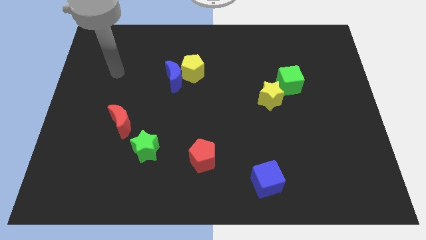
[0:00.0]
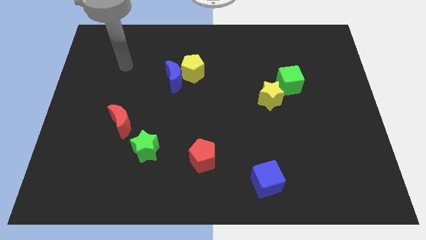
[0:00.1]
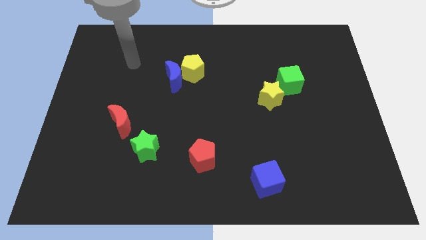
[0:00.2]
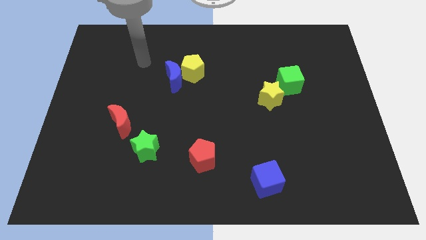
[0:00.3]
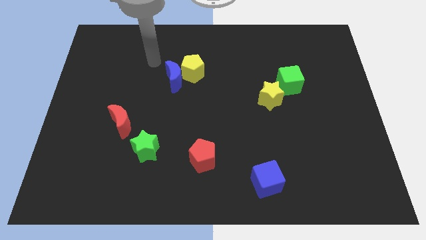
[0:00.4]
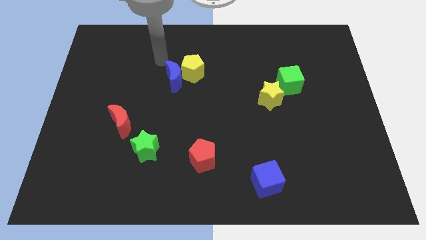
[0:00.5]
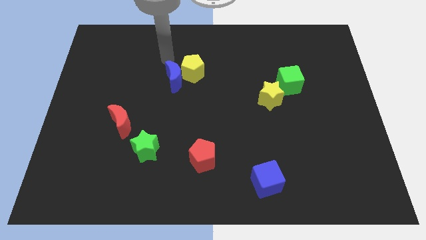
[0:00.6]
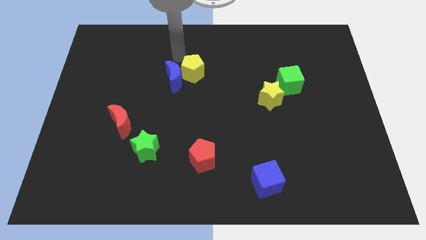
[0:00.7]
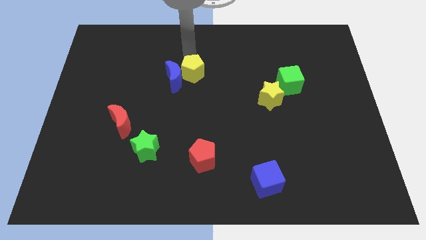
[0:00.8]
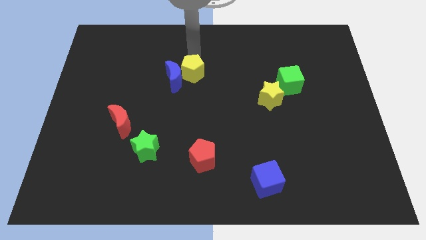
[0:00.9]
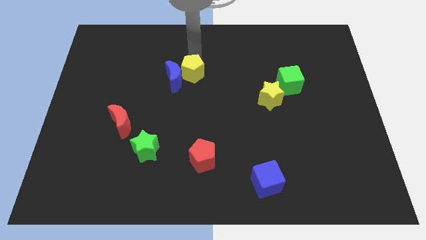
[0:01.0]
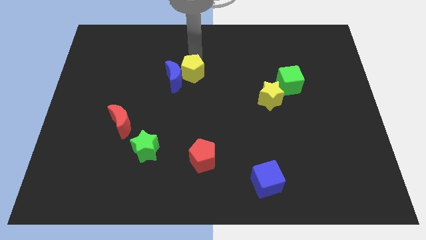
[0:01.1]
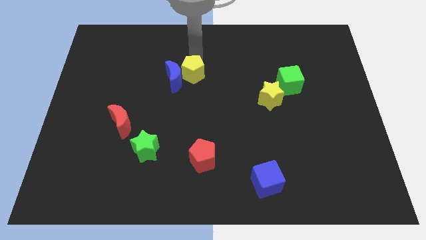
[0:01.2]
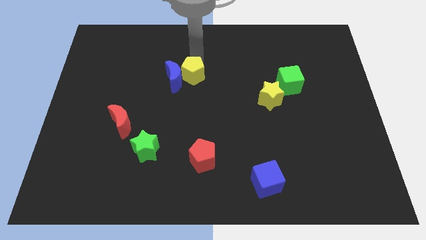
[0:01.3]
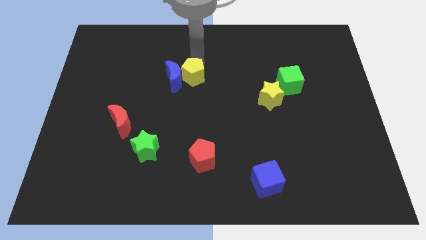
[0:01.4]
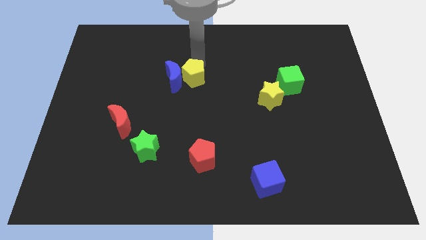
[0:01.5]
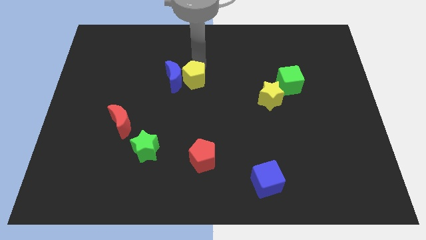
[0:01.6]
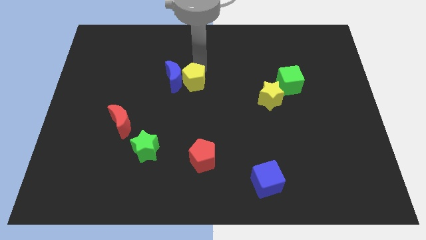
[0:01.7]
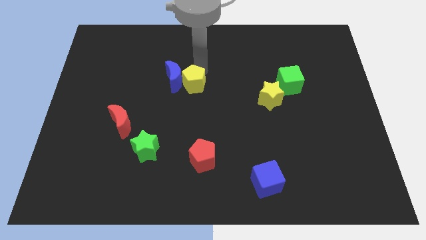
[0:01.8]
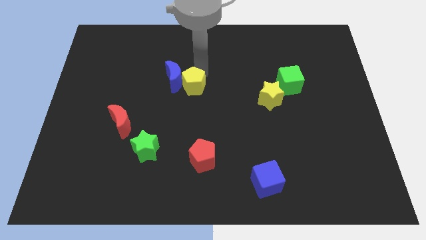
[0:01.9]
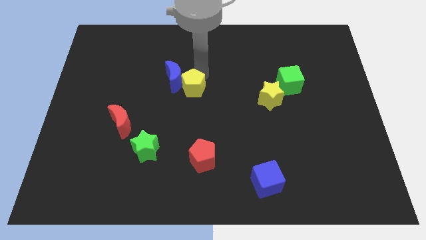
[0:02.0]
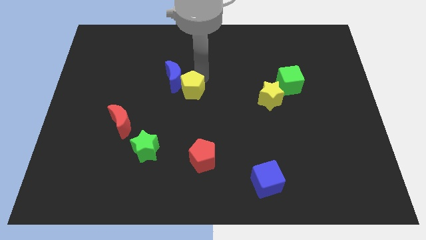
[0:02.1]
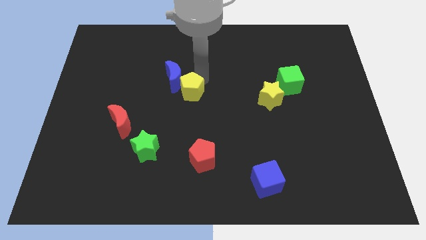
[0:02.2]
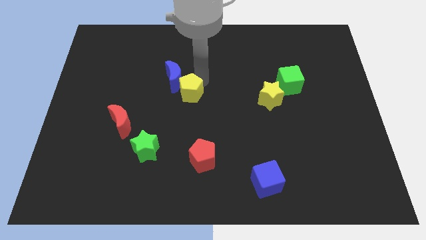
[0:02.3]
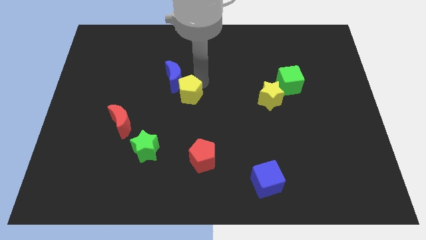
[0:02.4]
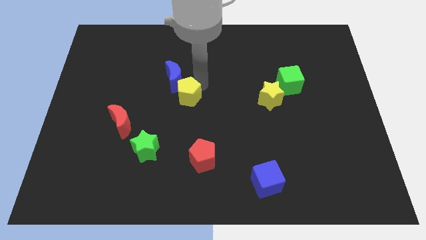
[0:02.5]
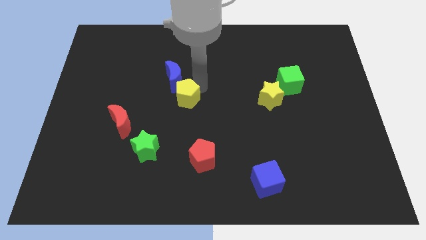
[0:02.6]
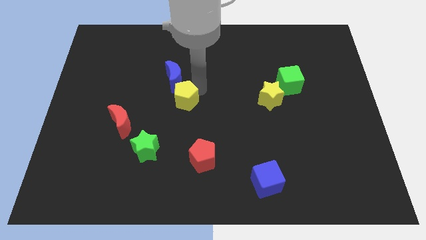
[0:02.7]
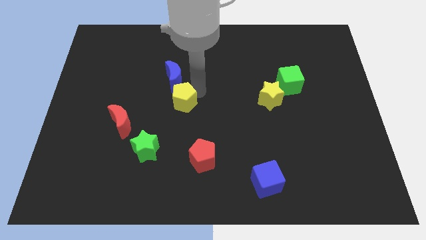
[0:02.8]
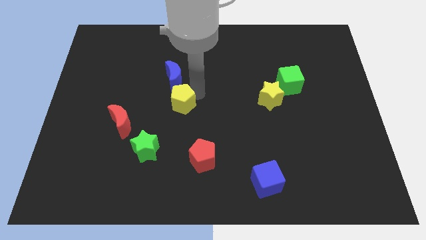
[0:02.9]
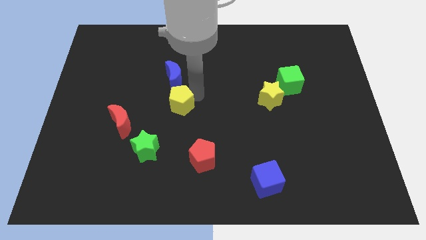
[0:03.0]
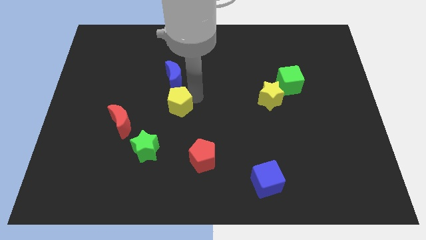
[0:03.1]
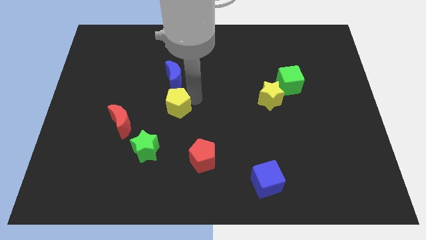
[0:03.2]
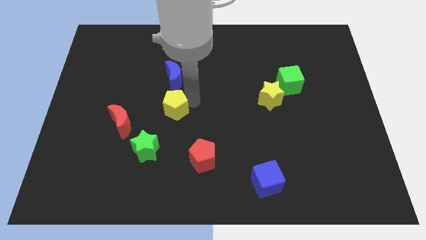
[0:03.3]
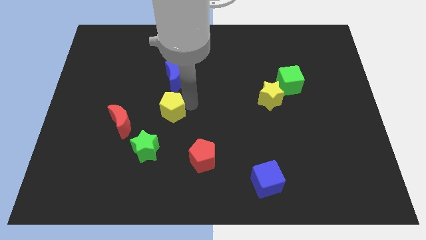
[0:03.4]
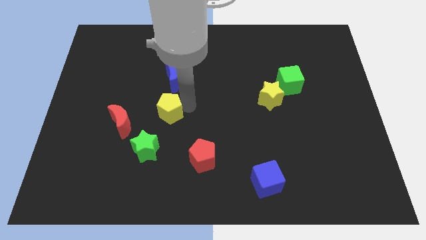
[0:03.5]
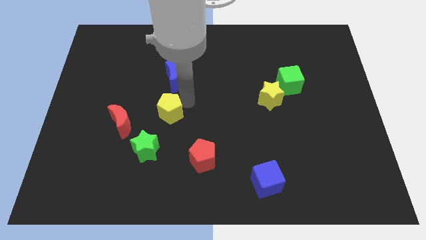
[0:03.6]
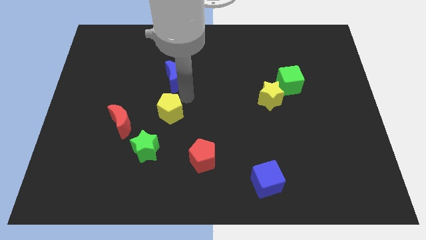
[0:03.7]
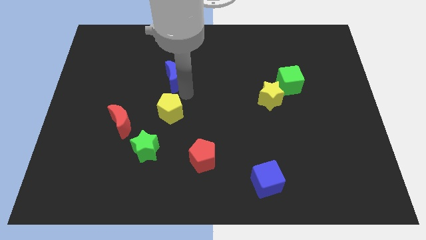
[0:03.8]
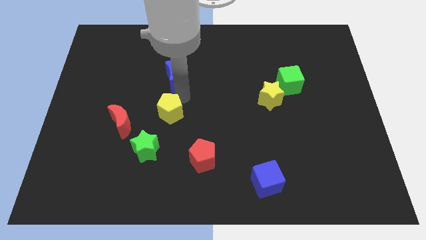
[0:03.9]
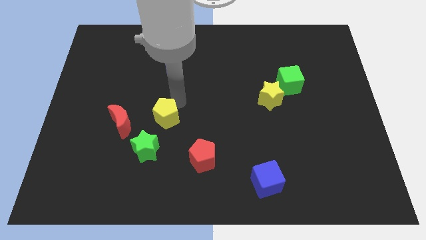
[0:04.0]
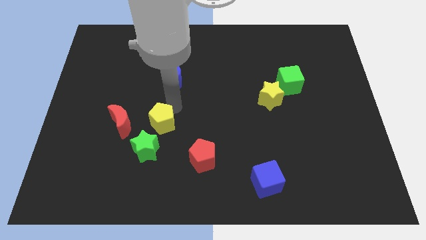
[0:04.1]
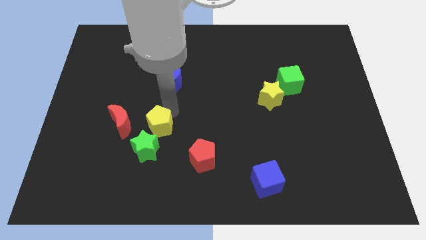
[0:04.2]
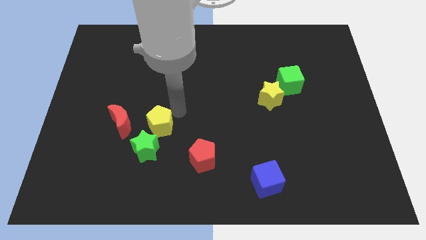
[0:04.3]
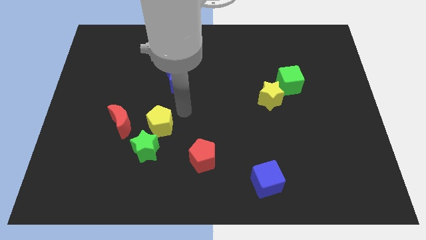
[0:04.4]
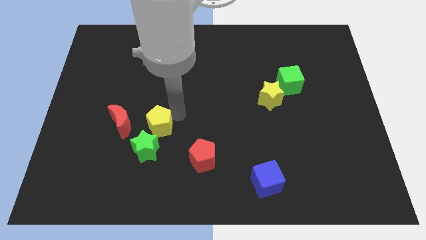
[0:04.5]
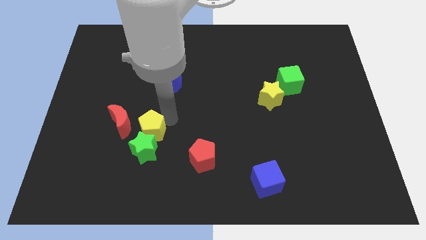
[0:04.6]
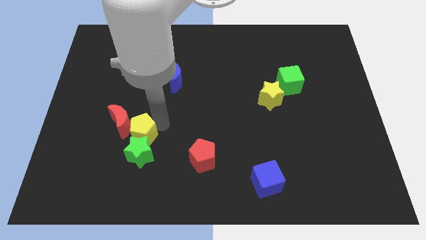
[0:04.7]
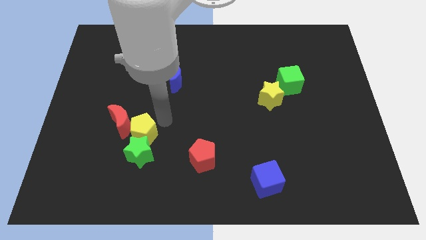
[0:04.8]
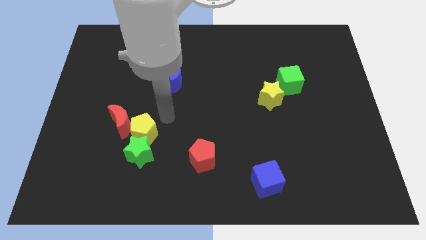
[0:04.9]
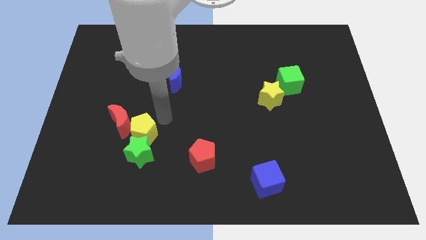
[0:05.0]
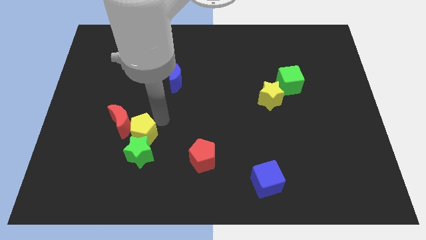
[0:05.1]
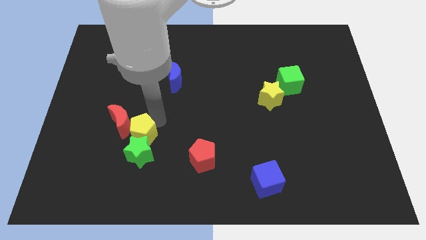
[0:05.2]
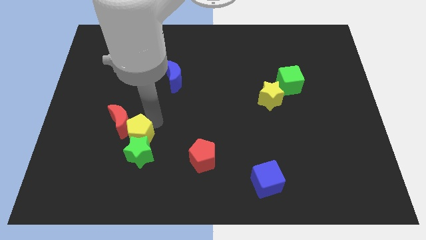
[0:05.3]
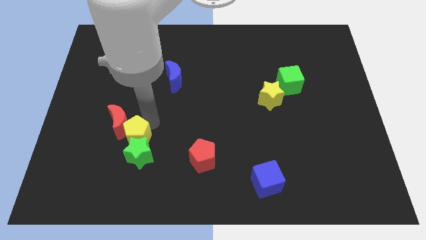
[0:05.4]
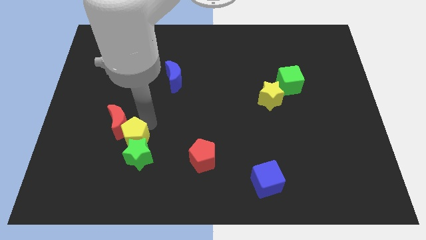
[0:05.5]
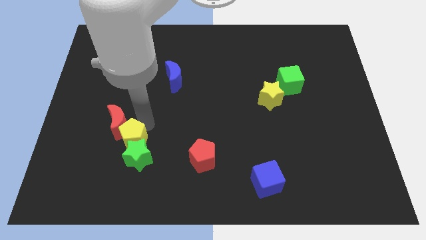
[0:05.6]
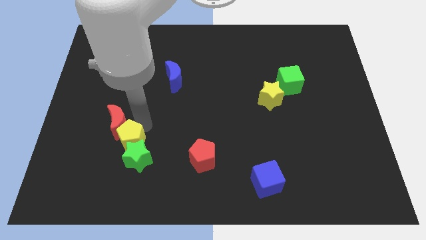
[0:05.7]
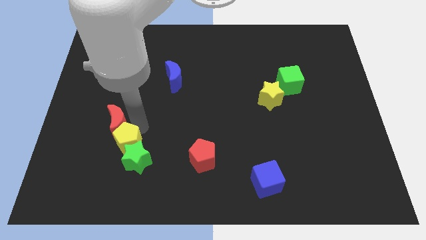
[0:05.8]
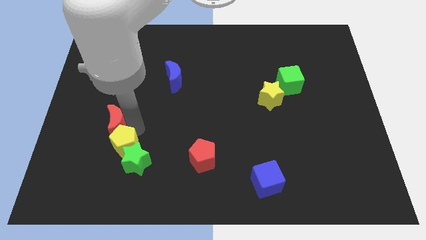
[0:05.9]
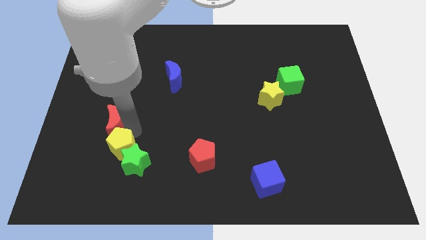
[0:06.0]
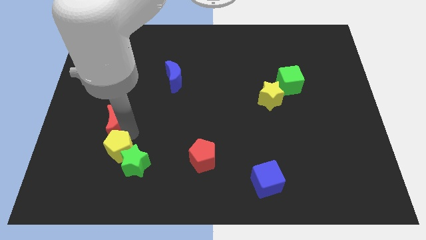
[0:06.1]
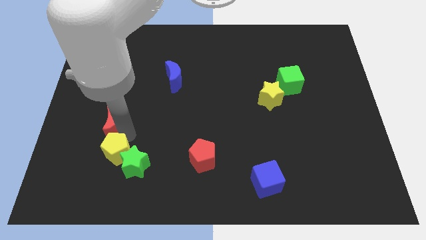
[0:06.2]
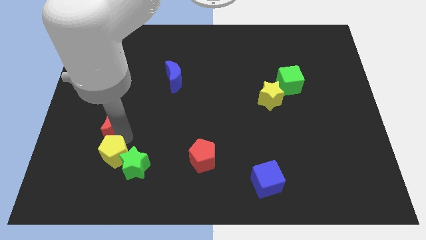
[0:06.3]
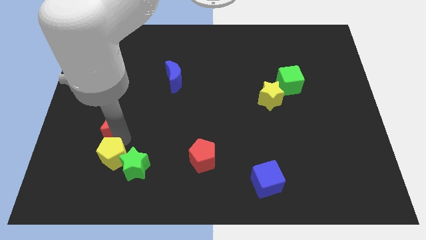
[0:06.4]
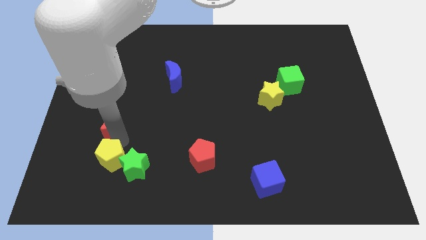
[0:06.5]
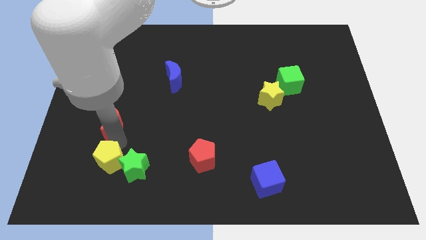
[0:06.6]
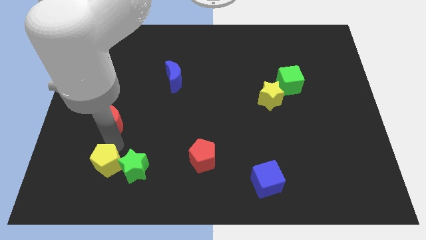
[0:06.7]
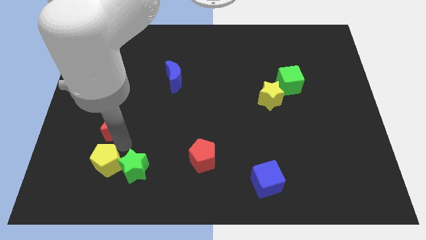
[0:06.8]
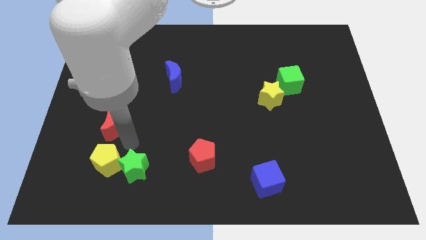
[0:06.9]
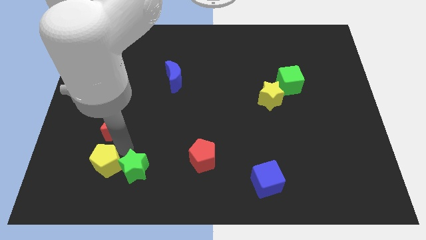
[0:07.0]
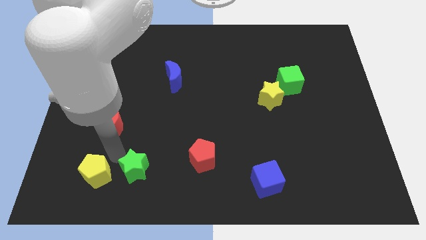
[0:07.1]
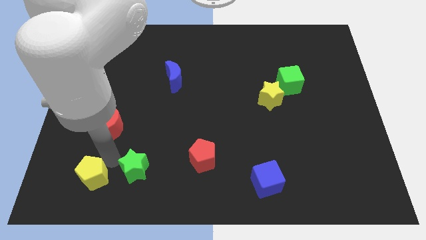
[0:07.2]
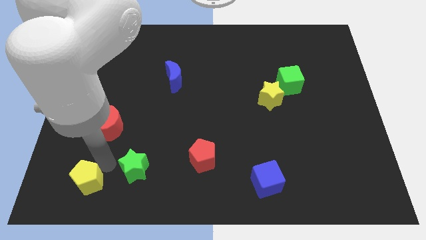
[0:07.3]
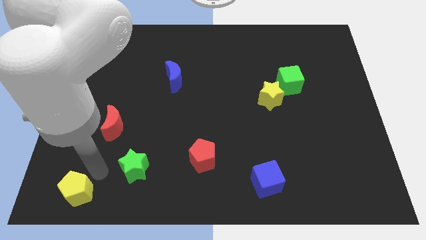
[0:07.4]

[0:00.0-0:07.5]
put the yellow pentagon to the lower left corner
